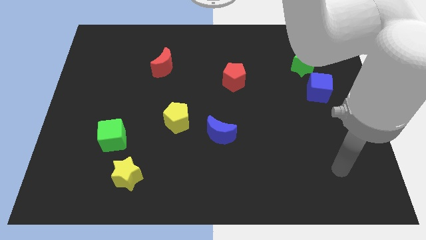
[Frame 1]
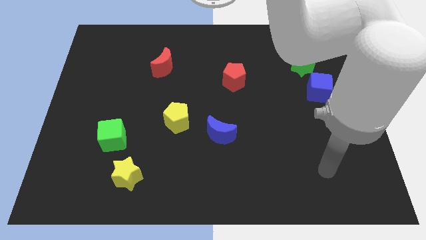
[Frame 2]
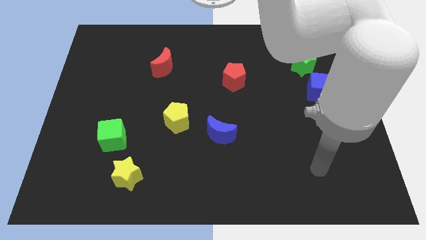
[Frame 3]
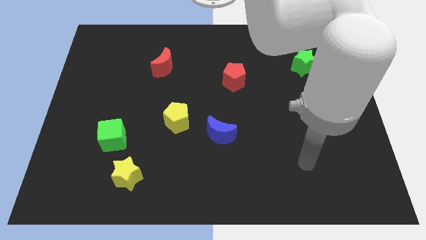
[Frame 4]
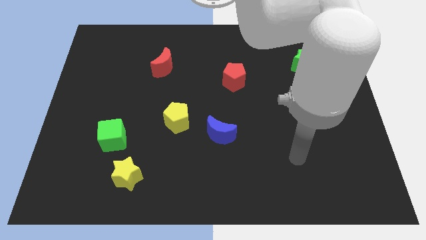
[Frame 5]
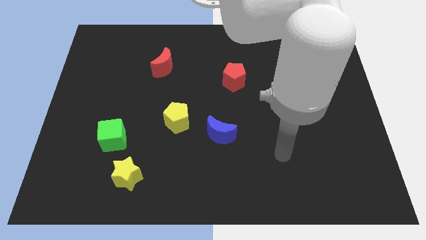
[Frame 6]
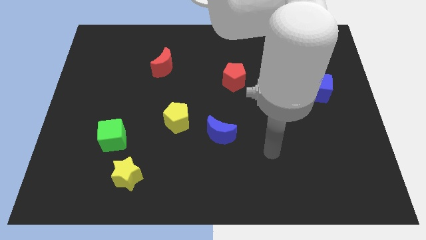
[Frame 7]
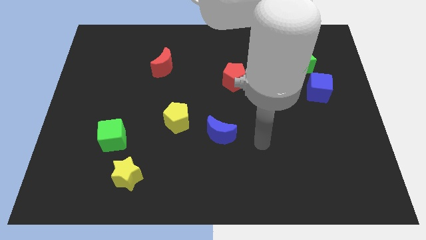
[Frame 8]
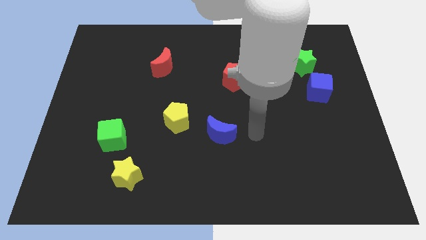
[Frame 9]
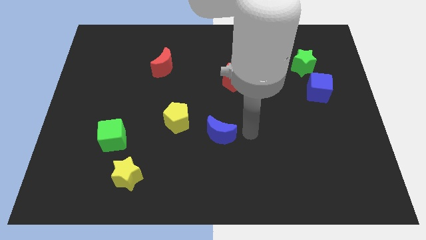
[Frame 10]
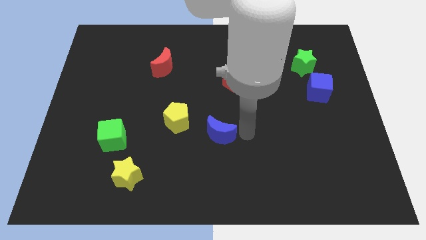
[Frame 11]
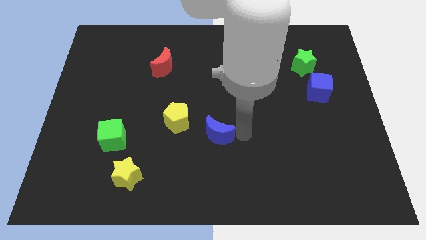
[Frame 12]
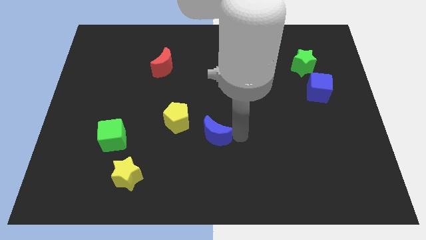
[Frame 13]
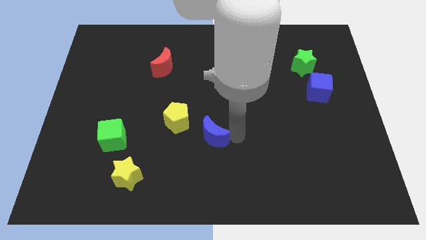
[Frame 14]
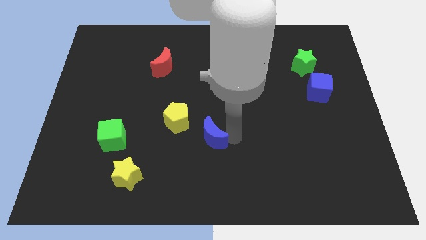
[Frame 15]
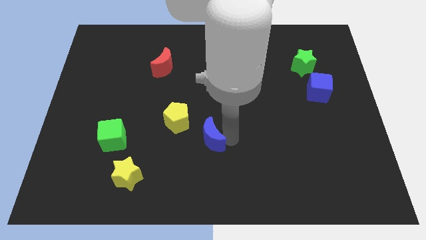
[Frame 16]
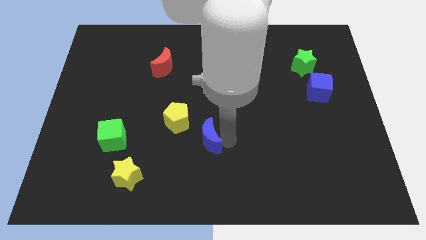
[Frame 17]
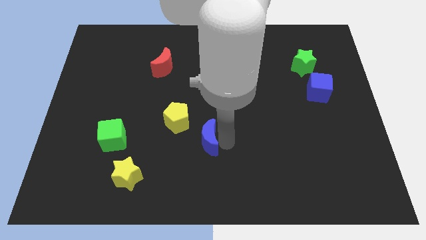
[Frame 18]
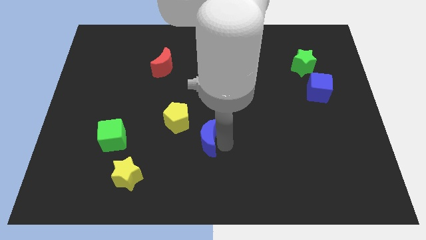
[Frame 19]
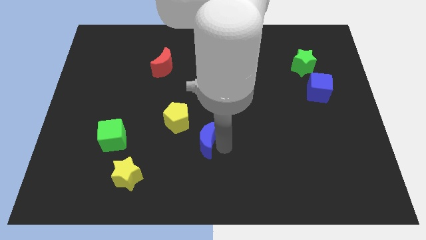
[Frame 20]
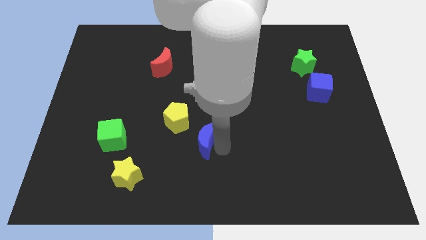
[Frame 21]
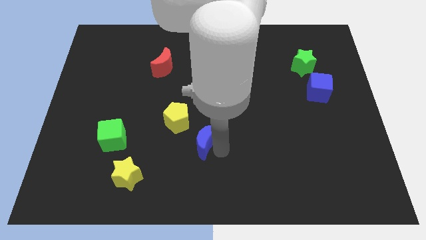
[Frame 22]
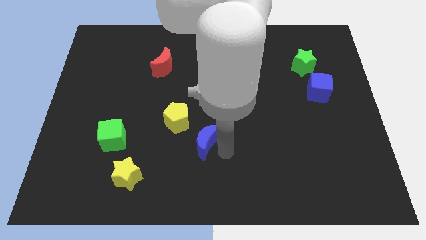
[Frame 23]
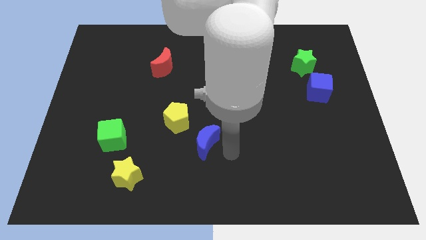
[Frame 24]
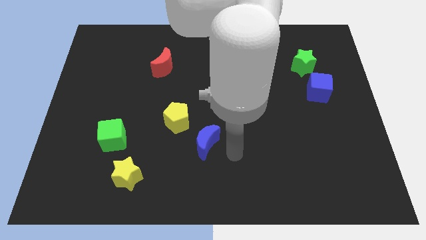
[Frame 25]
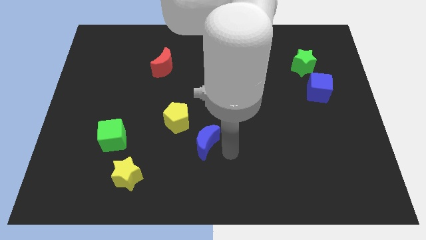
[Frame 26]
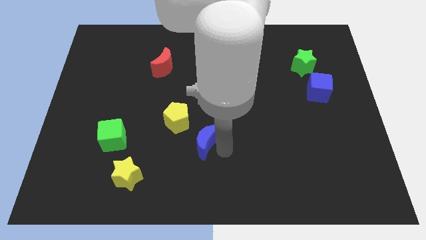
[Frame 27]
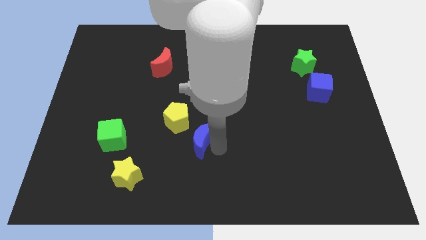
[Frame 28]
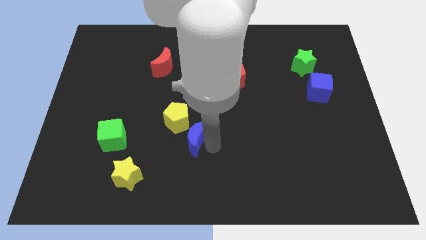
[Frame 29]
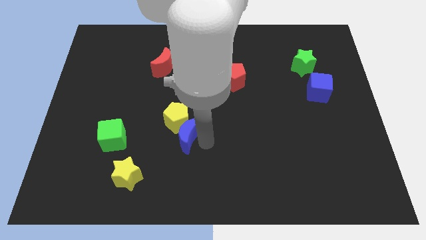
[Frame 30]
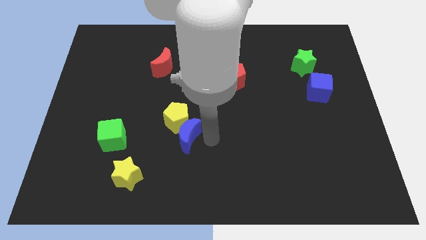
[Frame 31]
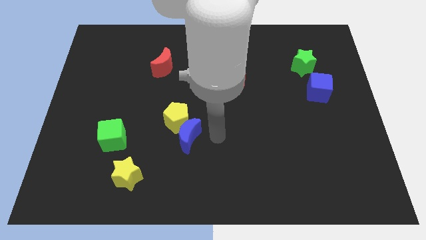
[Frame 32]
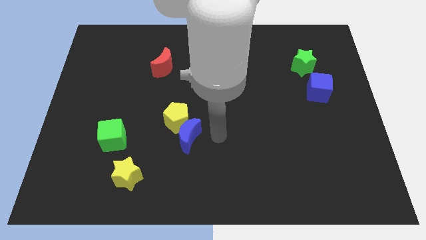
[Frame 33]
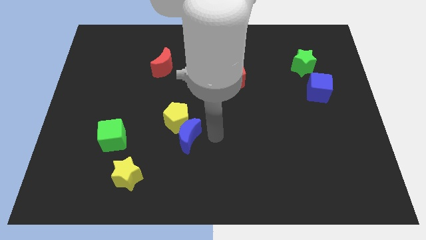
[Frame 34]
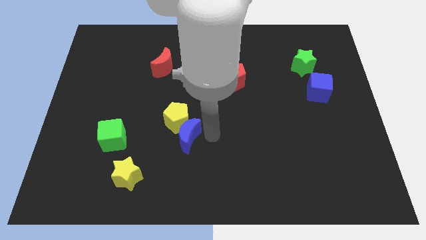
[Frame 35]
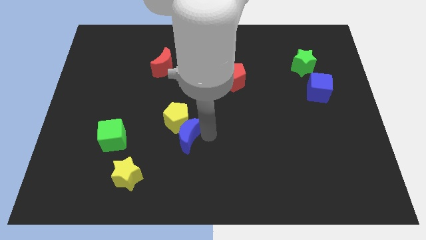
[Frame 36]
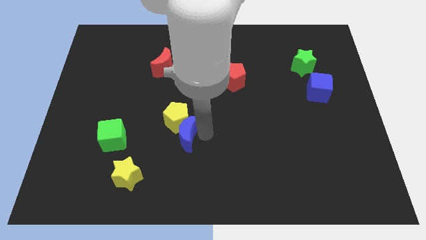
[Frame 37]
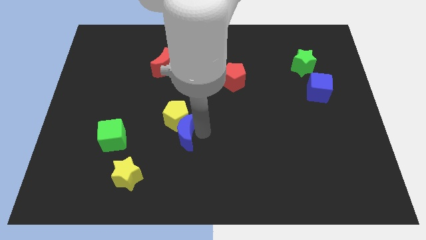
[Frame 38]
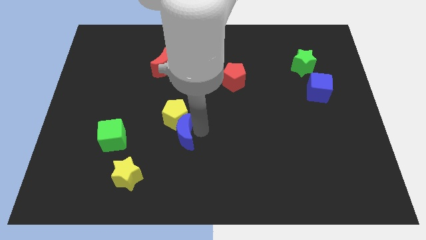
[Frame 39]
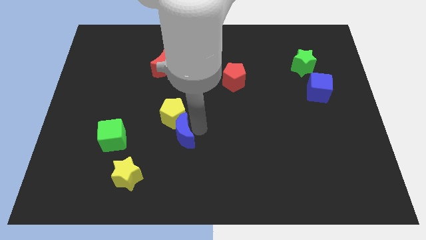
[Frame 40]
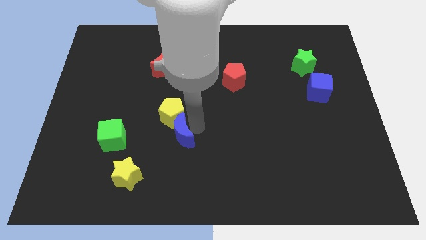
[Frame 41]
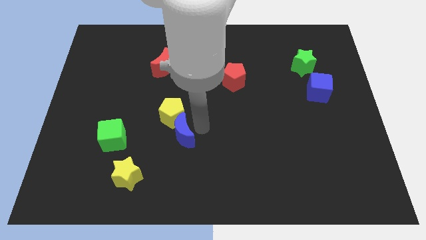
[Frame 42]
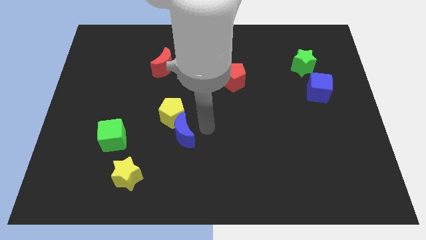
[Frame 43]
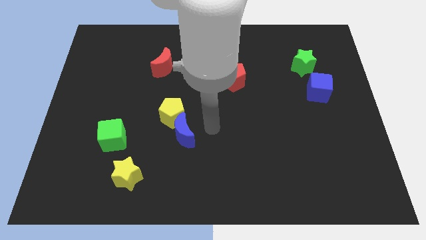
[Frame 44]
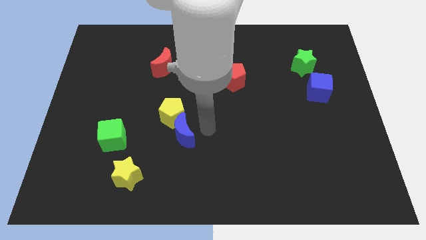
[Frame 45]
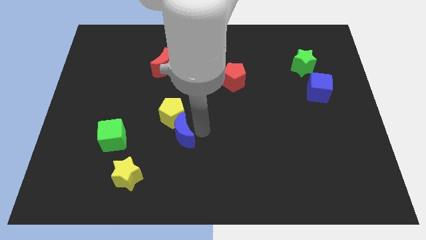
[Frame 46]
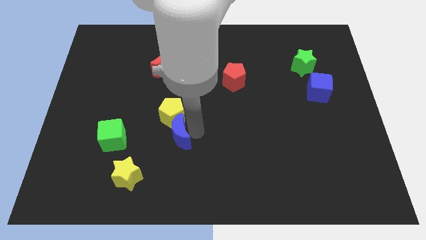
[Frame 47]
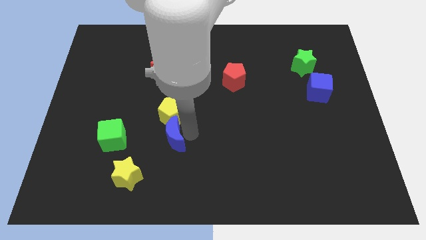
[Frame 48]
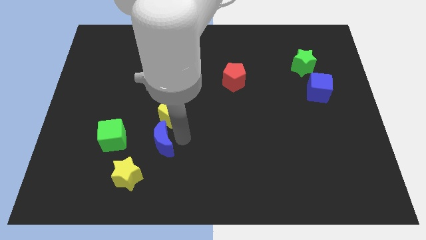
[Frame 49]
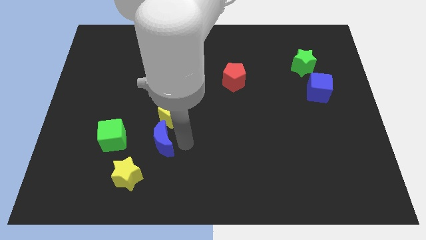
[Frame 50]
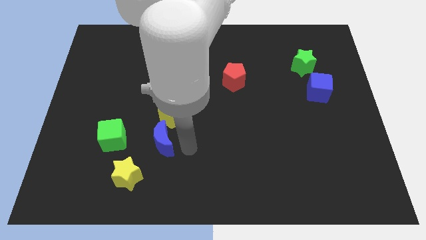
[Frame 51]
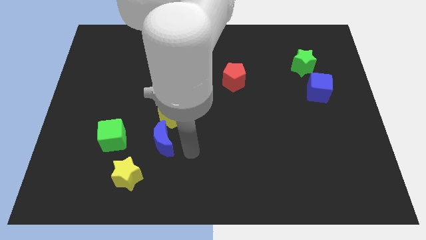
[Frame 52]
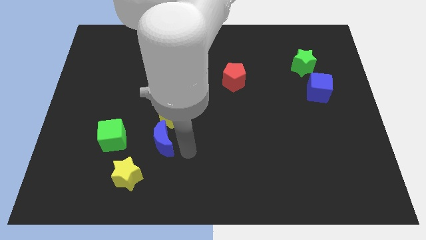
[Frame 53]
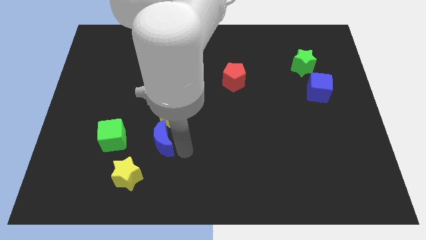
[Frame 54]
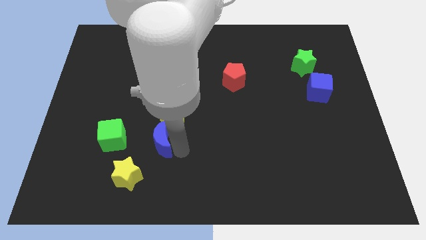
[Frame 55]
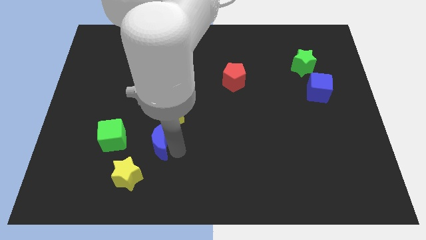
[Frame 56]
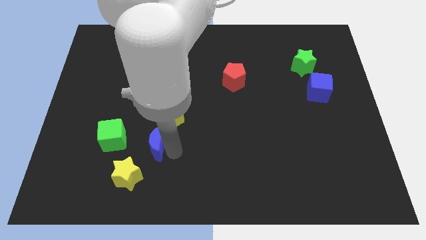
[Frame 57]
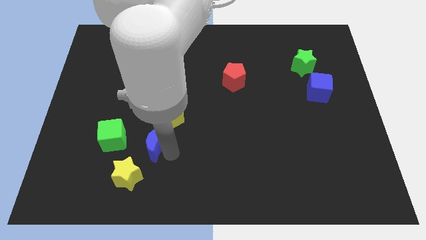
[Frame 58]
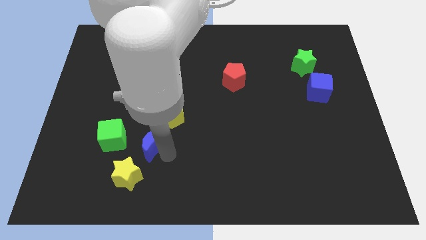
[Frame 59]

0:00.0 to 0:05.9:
push the blue moon to the top side of the yellow star
